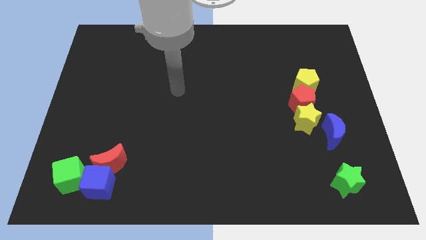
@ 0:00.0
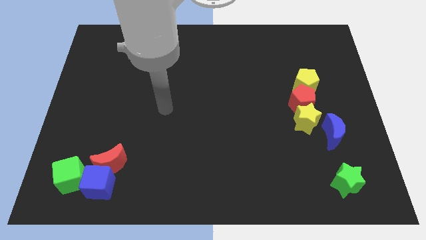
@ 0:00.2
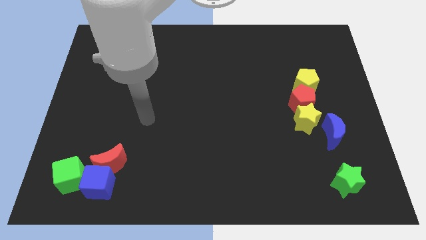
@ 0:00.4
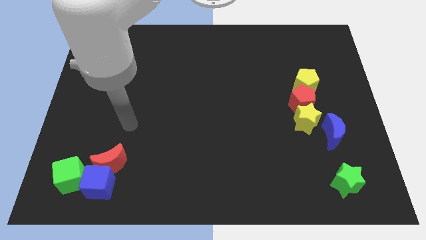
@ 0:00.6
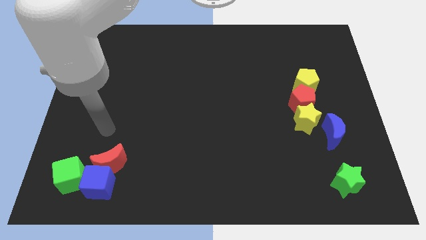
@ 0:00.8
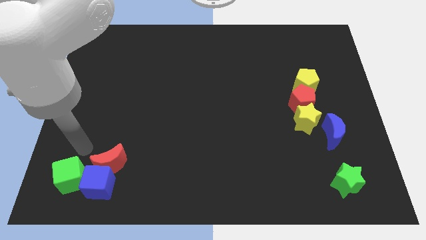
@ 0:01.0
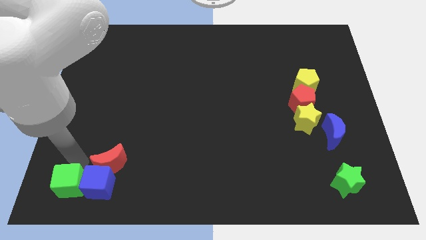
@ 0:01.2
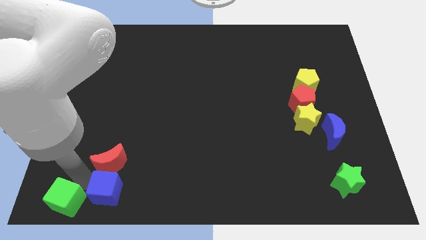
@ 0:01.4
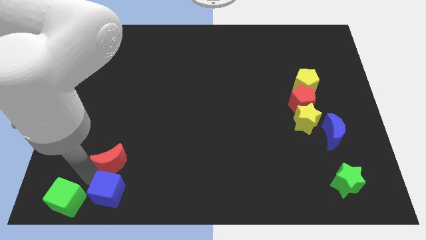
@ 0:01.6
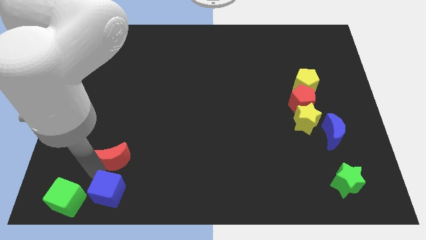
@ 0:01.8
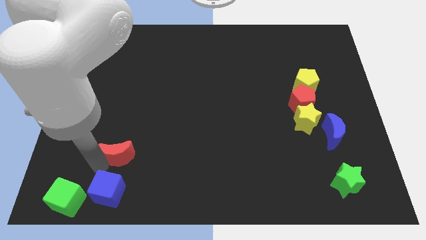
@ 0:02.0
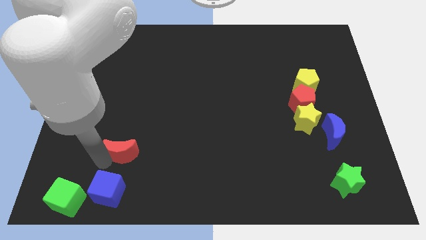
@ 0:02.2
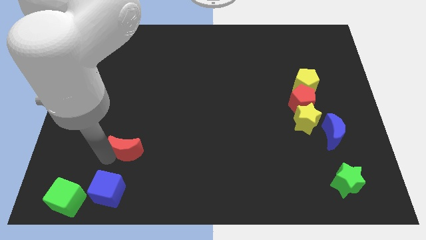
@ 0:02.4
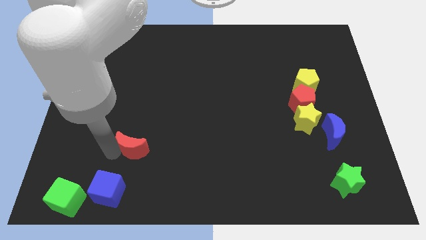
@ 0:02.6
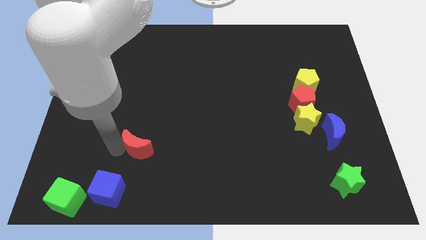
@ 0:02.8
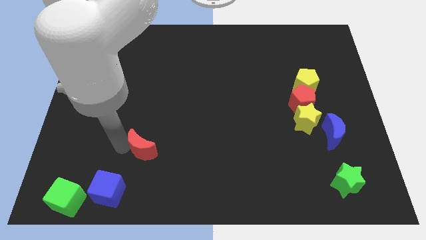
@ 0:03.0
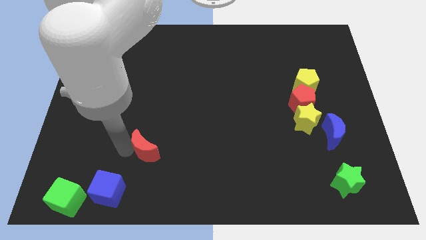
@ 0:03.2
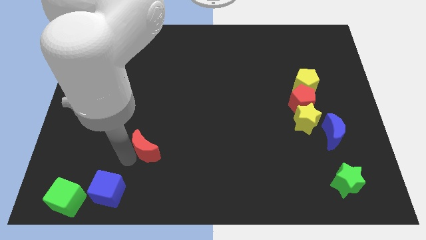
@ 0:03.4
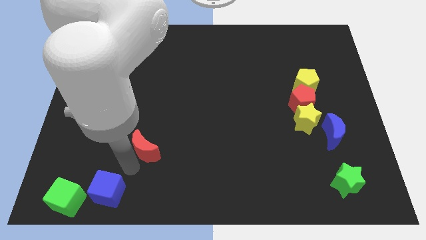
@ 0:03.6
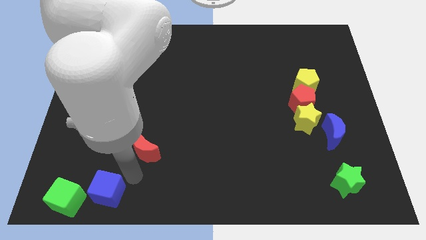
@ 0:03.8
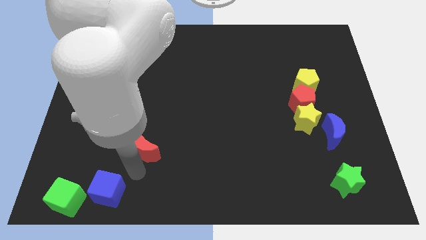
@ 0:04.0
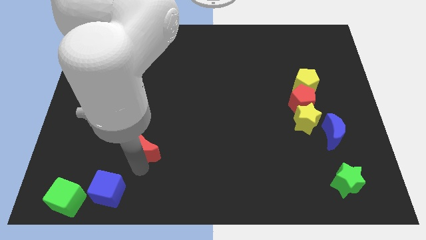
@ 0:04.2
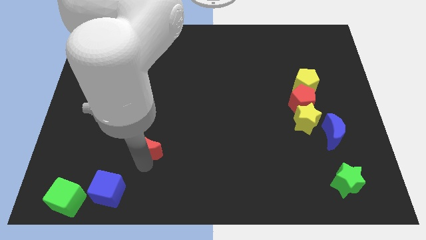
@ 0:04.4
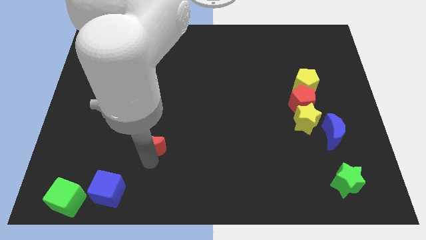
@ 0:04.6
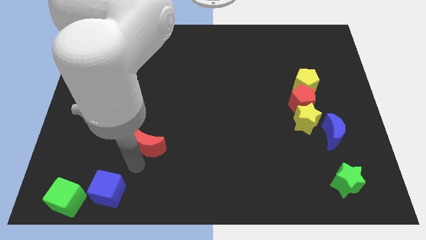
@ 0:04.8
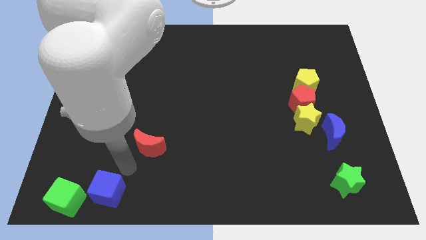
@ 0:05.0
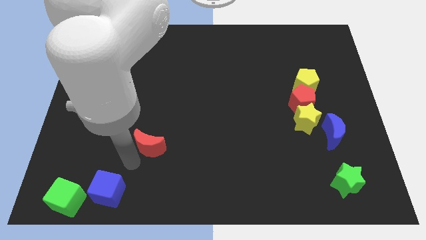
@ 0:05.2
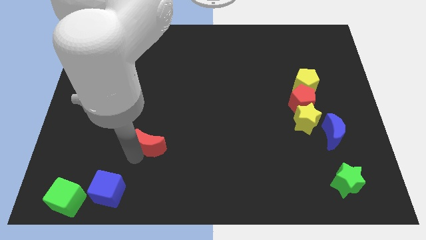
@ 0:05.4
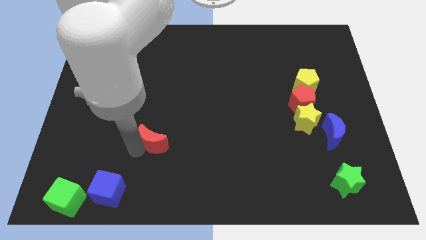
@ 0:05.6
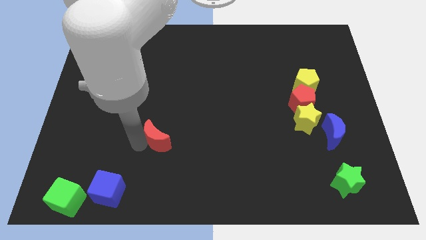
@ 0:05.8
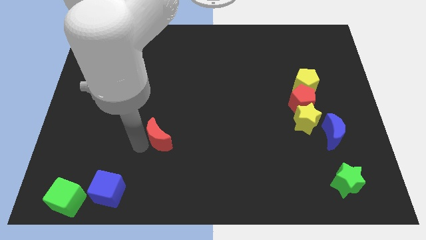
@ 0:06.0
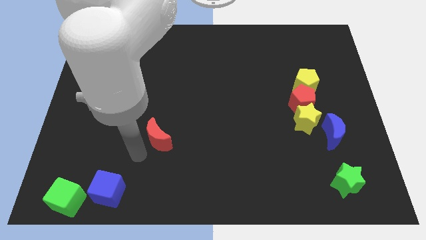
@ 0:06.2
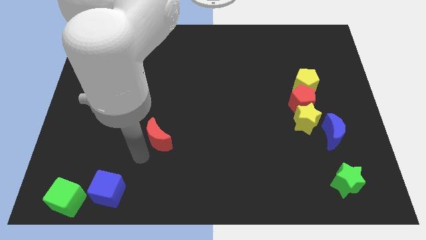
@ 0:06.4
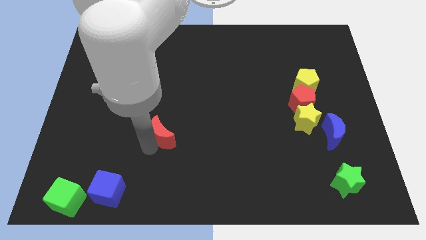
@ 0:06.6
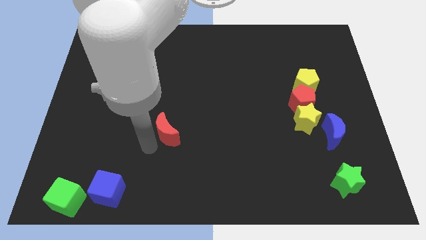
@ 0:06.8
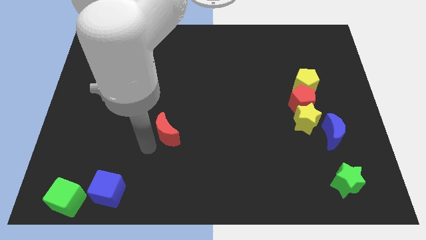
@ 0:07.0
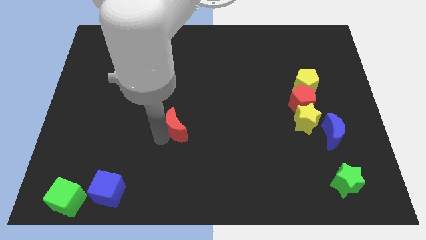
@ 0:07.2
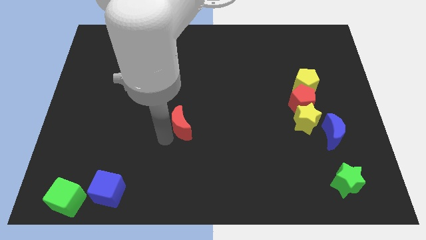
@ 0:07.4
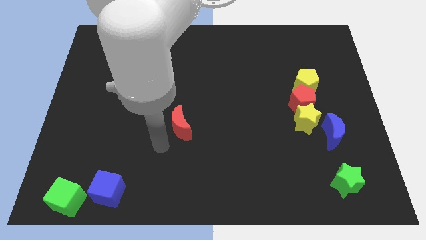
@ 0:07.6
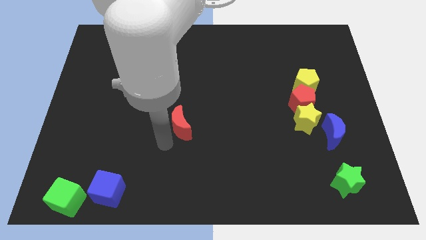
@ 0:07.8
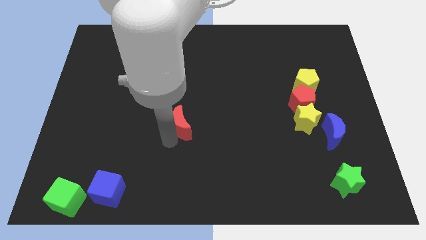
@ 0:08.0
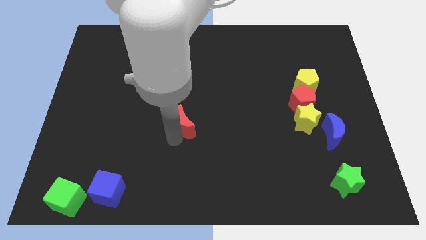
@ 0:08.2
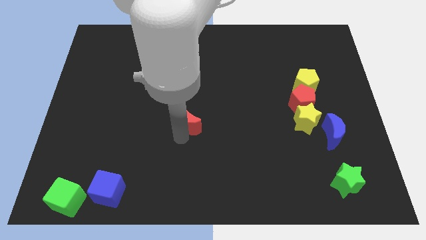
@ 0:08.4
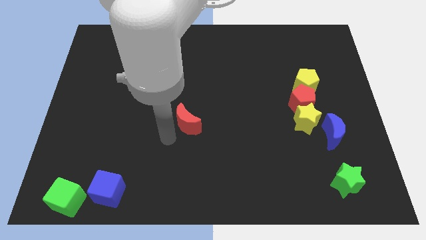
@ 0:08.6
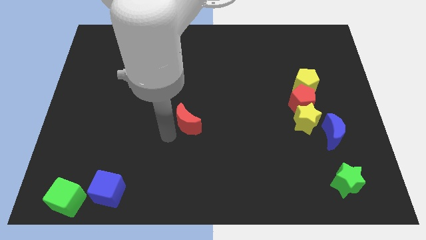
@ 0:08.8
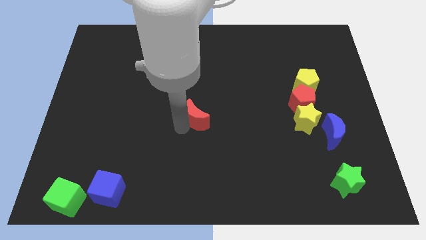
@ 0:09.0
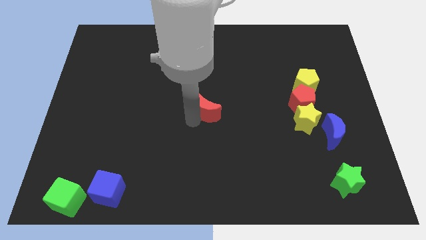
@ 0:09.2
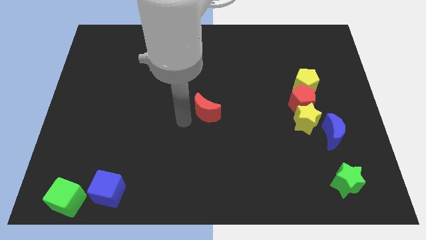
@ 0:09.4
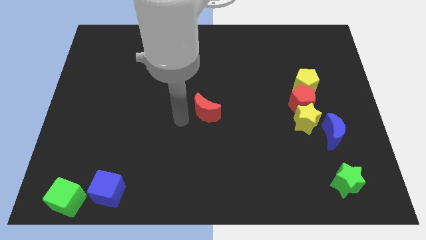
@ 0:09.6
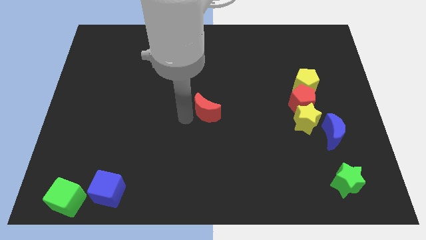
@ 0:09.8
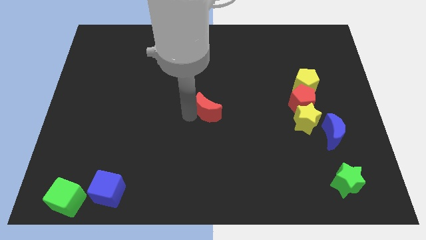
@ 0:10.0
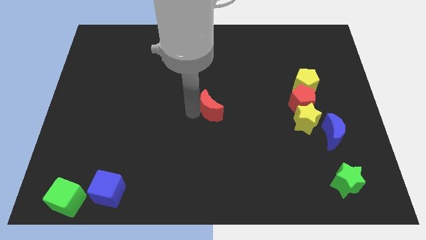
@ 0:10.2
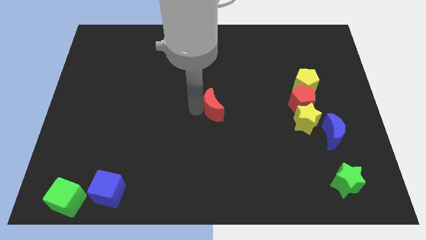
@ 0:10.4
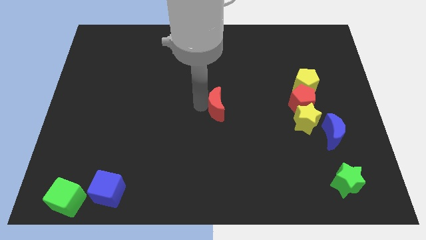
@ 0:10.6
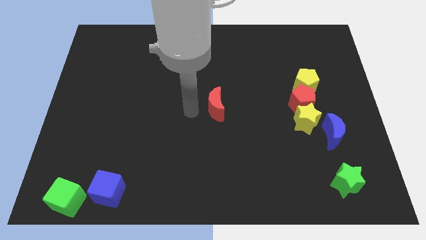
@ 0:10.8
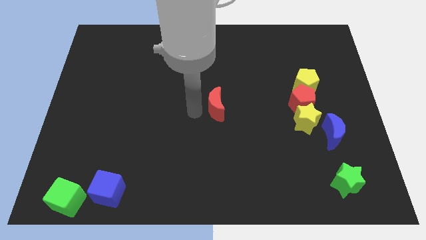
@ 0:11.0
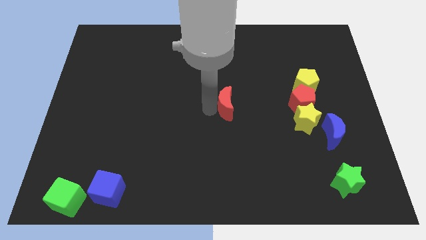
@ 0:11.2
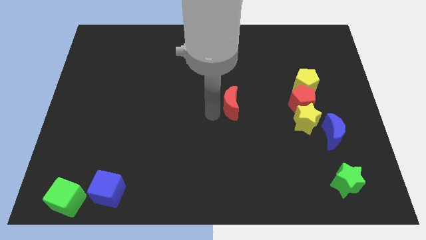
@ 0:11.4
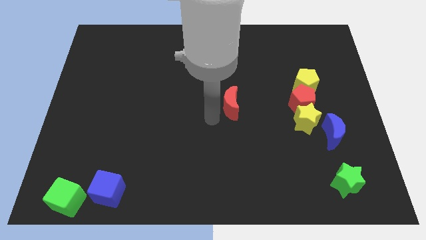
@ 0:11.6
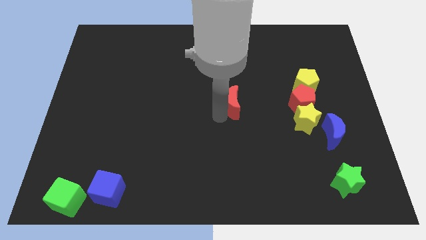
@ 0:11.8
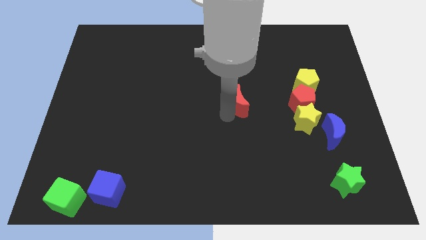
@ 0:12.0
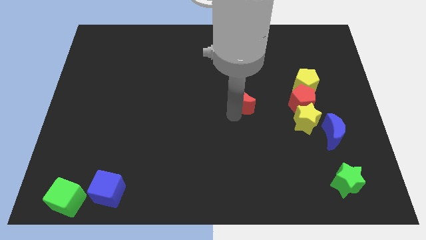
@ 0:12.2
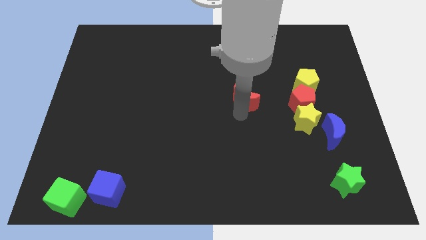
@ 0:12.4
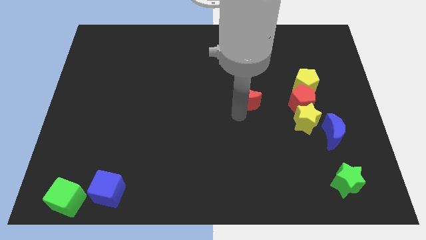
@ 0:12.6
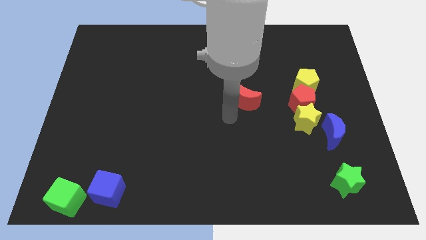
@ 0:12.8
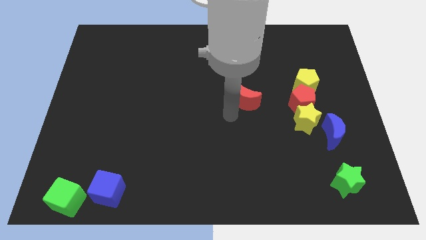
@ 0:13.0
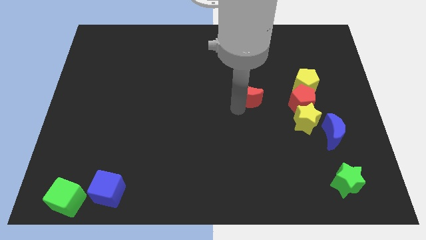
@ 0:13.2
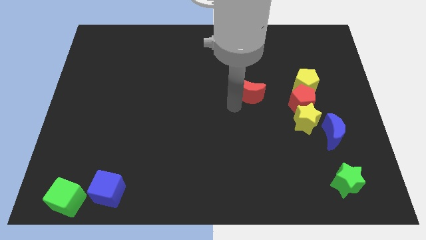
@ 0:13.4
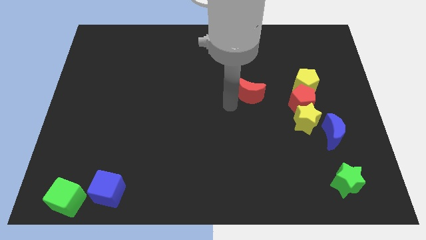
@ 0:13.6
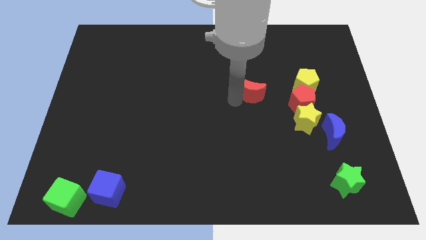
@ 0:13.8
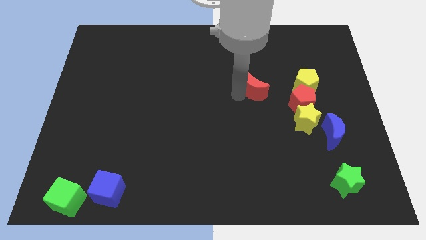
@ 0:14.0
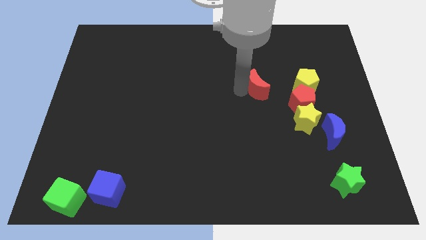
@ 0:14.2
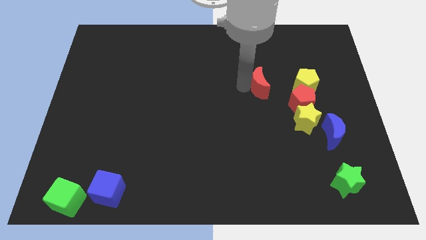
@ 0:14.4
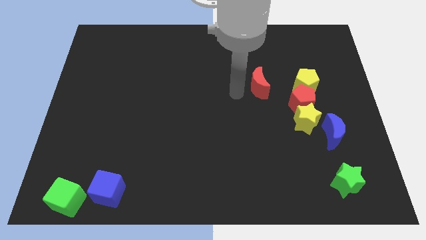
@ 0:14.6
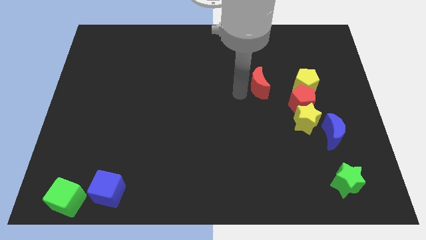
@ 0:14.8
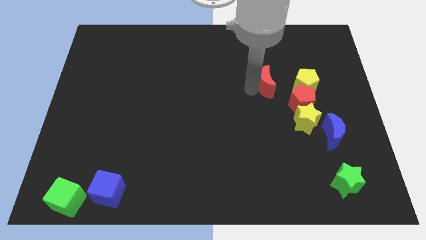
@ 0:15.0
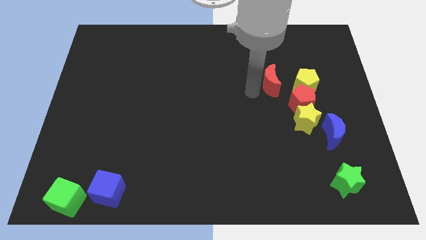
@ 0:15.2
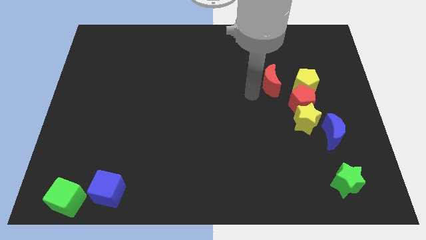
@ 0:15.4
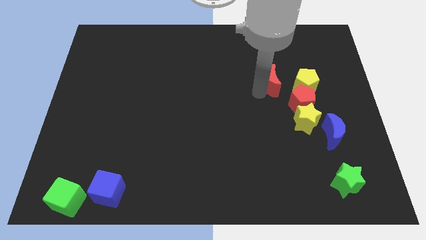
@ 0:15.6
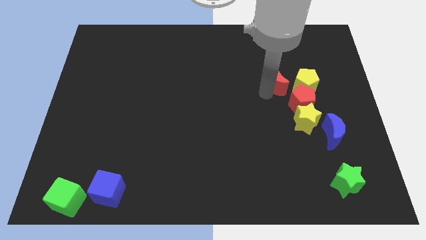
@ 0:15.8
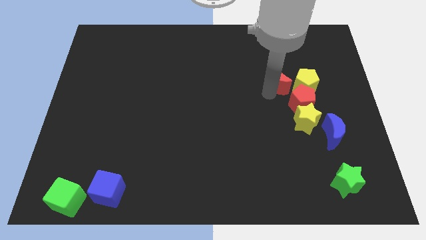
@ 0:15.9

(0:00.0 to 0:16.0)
push the red moon above the red pentagon
